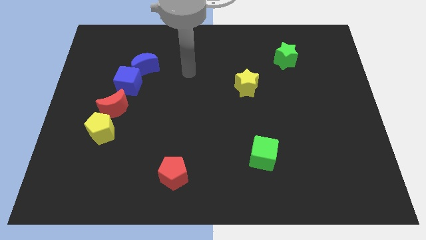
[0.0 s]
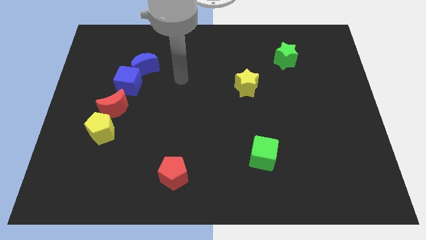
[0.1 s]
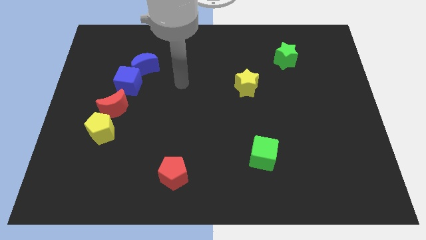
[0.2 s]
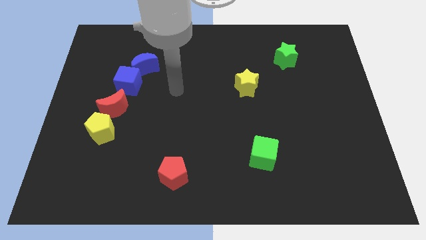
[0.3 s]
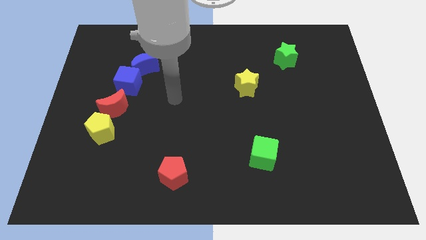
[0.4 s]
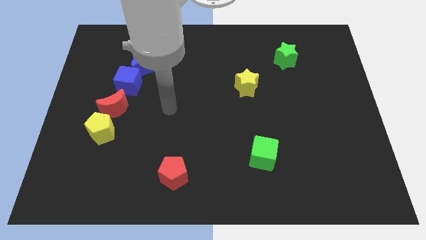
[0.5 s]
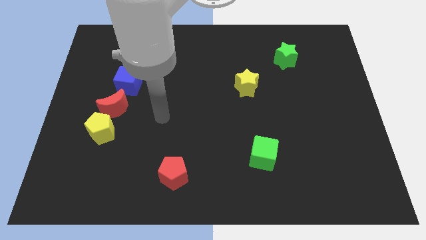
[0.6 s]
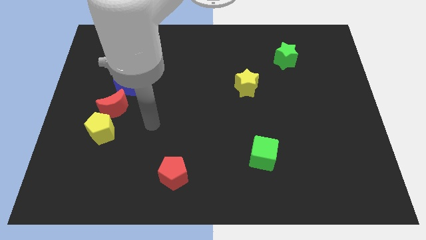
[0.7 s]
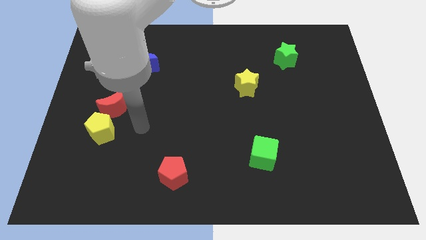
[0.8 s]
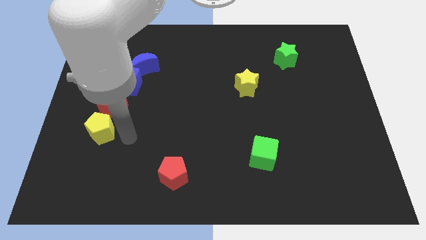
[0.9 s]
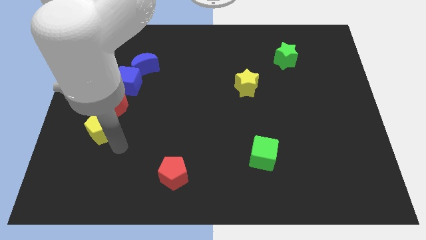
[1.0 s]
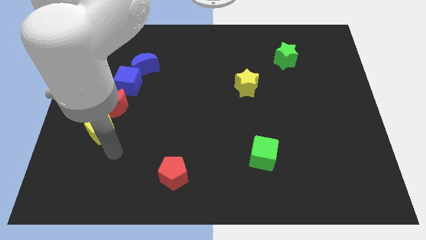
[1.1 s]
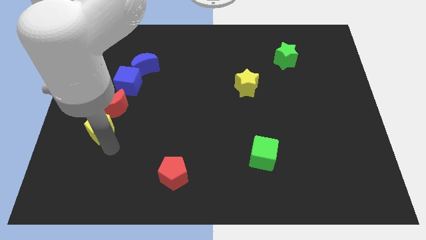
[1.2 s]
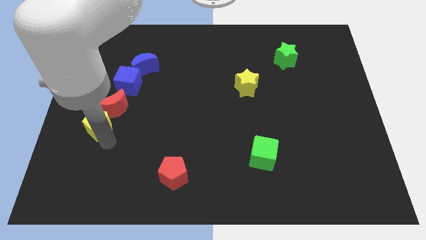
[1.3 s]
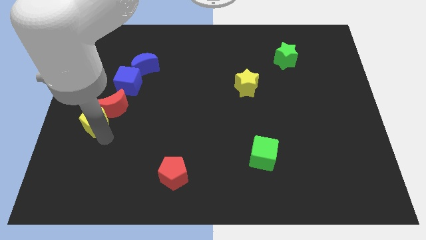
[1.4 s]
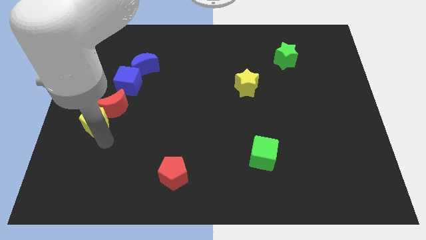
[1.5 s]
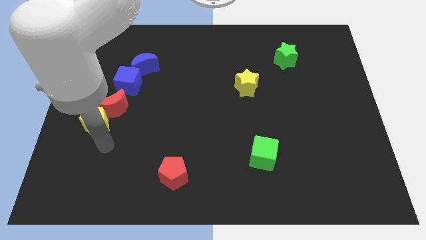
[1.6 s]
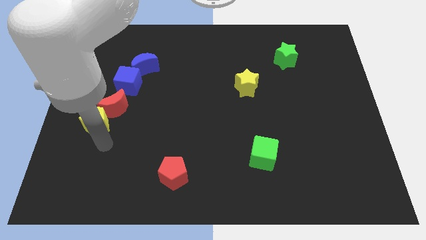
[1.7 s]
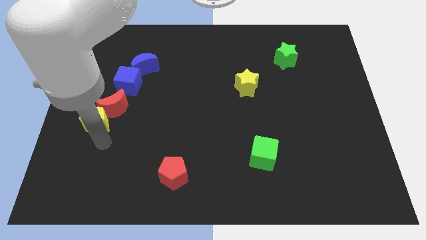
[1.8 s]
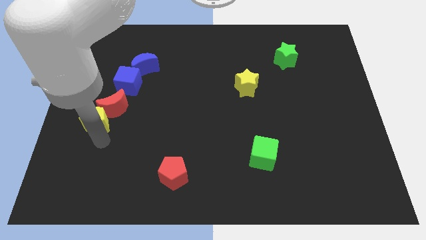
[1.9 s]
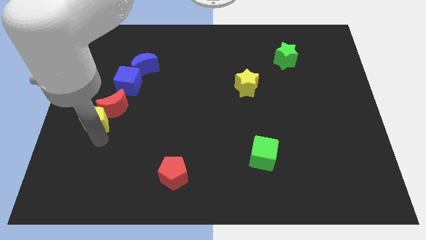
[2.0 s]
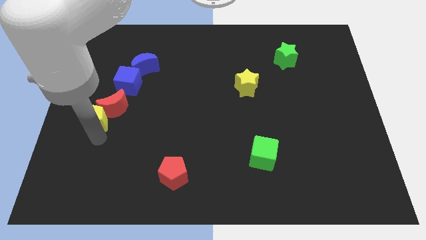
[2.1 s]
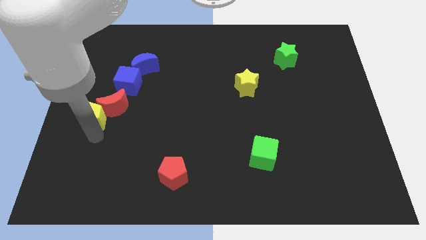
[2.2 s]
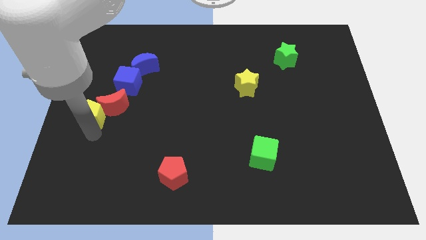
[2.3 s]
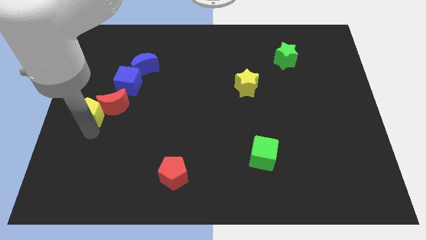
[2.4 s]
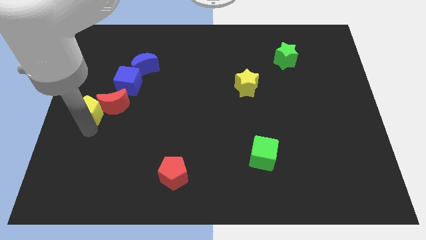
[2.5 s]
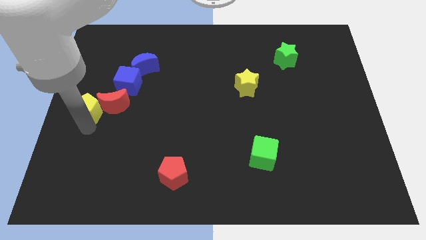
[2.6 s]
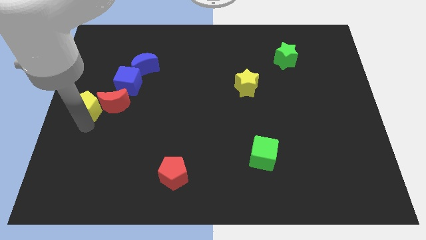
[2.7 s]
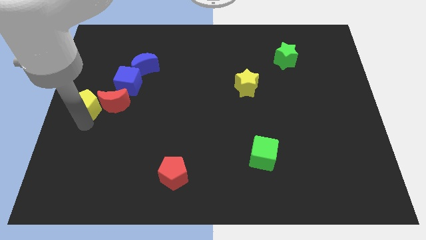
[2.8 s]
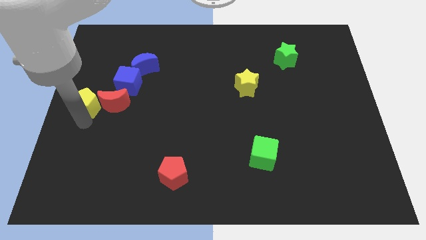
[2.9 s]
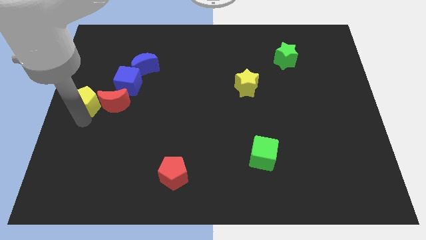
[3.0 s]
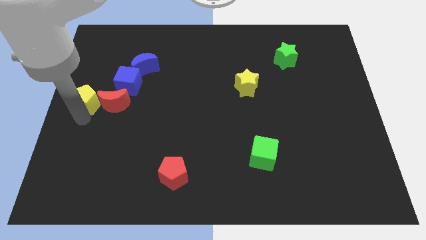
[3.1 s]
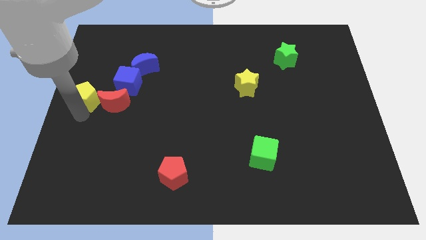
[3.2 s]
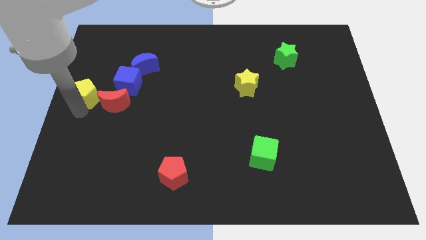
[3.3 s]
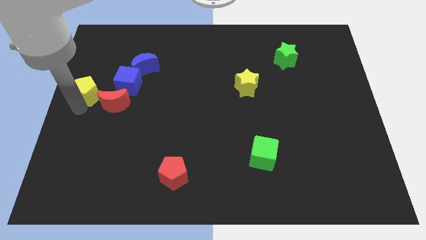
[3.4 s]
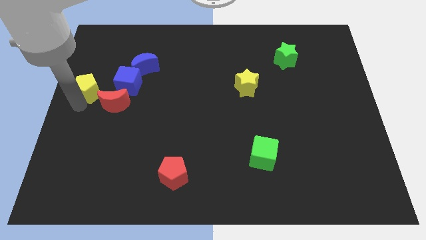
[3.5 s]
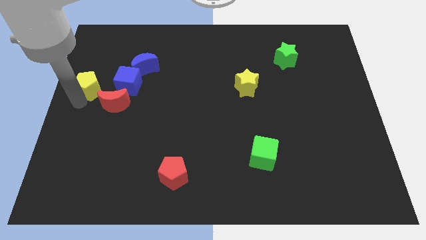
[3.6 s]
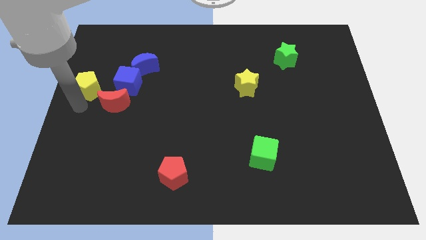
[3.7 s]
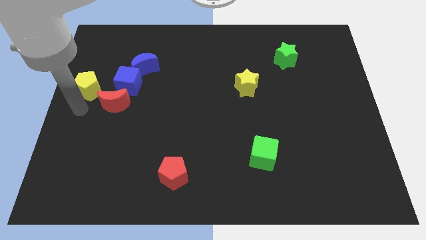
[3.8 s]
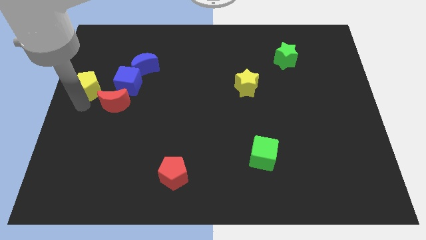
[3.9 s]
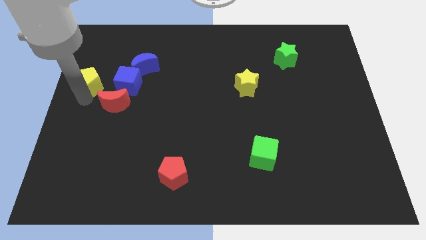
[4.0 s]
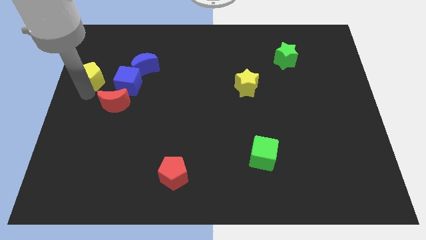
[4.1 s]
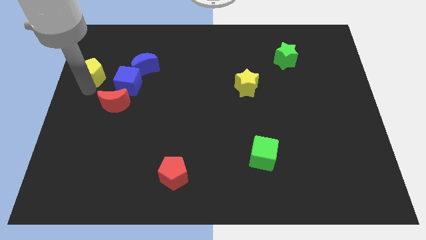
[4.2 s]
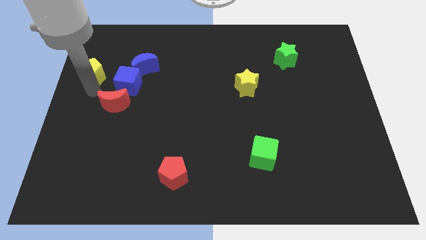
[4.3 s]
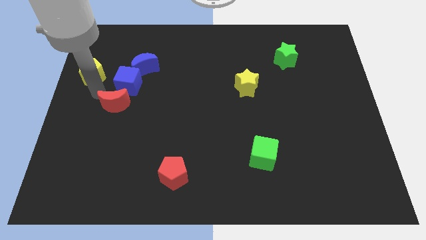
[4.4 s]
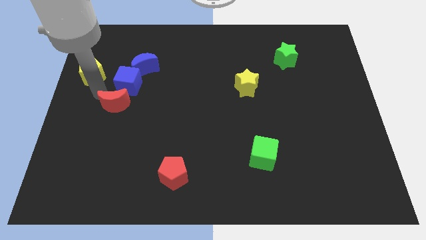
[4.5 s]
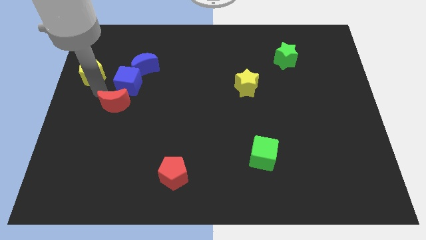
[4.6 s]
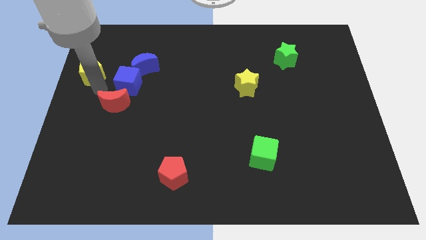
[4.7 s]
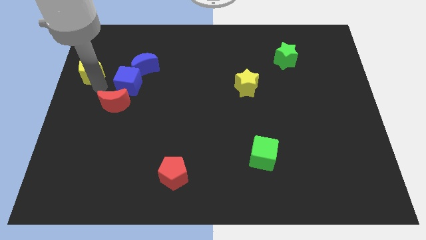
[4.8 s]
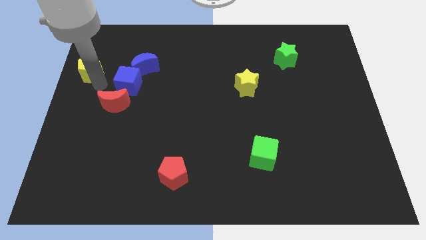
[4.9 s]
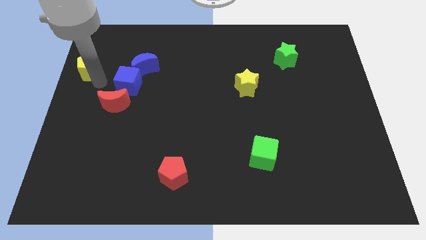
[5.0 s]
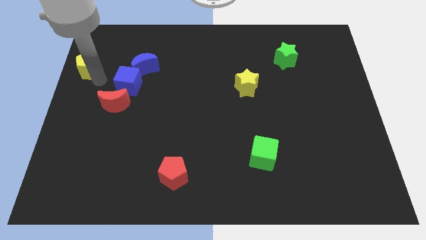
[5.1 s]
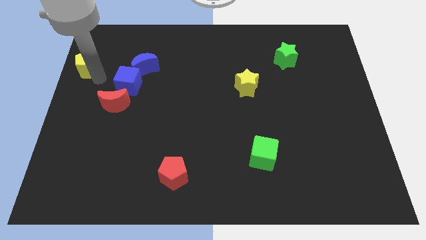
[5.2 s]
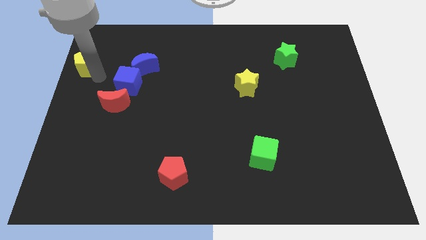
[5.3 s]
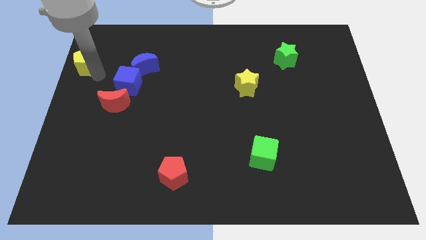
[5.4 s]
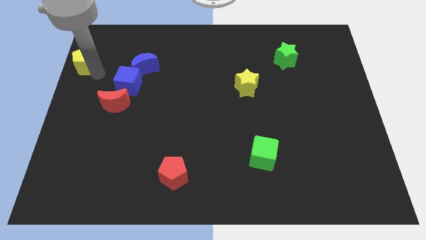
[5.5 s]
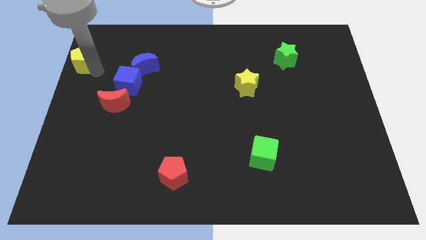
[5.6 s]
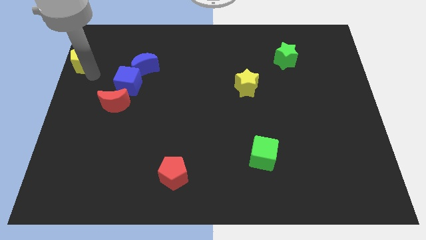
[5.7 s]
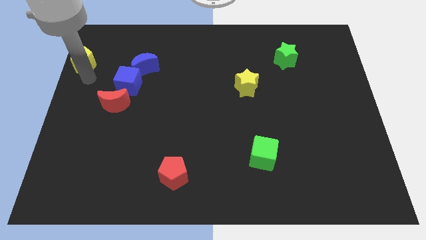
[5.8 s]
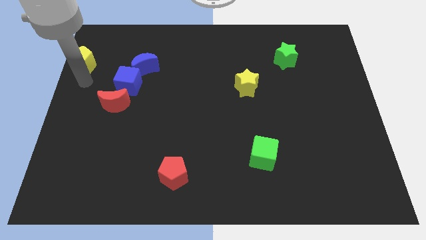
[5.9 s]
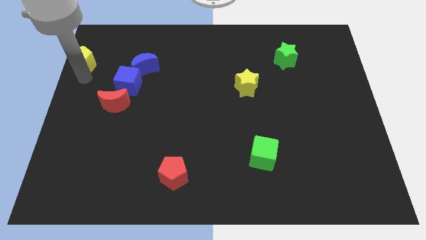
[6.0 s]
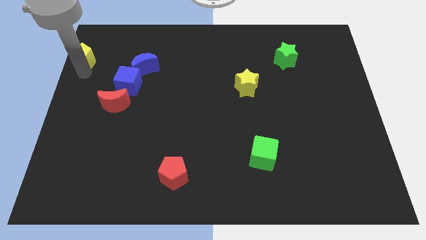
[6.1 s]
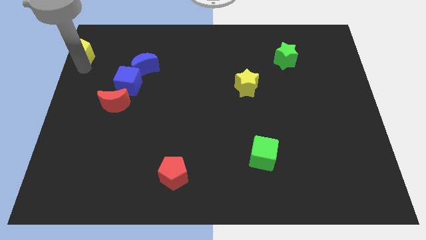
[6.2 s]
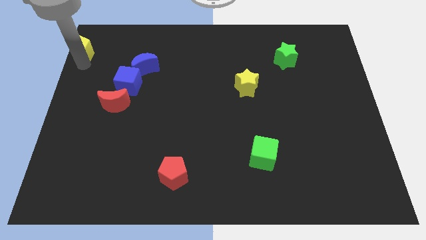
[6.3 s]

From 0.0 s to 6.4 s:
move the yellow pentagon to the top left of the board

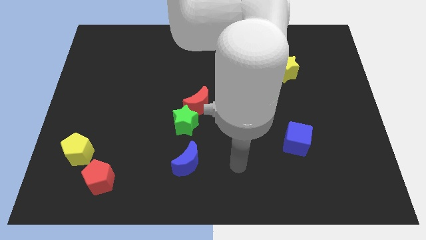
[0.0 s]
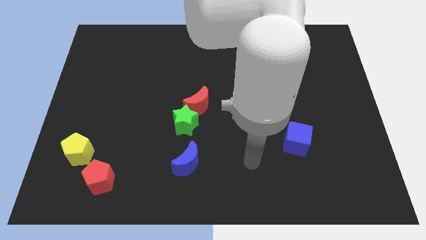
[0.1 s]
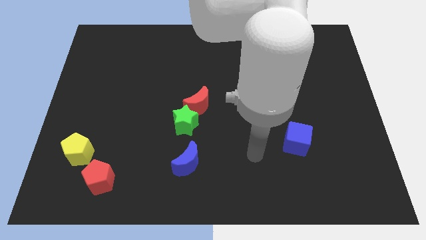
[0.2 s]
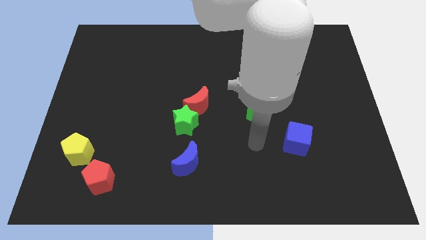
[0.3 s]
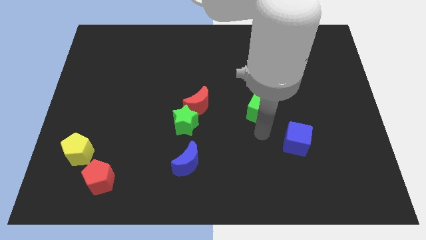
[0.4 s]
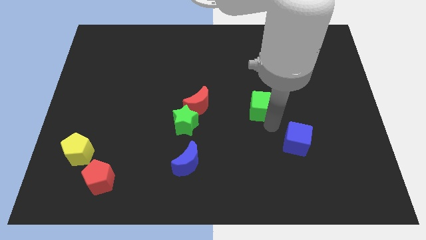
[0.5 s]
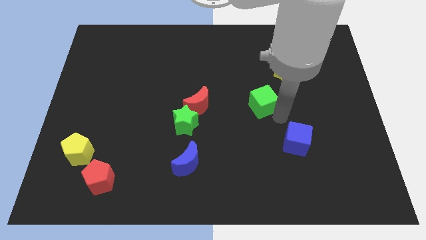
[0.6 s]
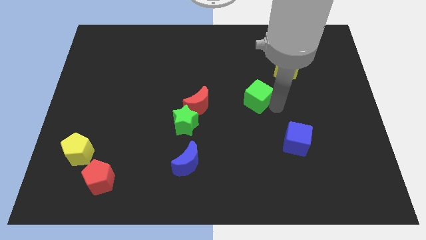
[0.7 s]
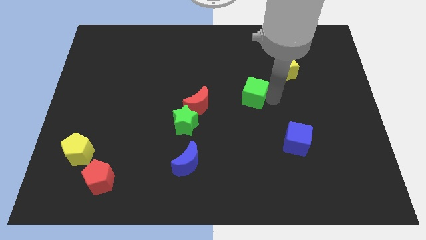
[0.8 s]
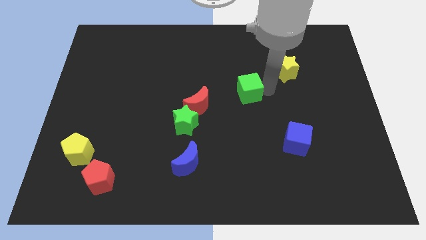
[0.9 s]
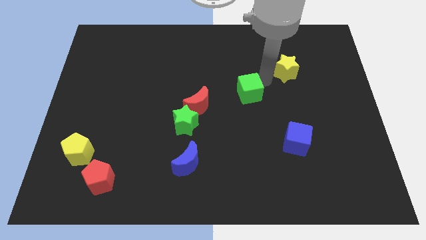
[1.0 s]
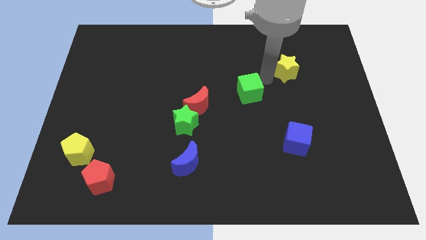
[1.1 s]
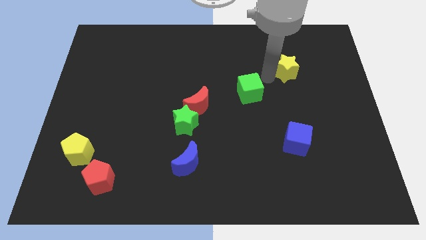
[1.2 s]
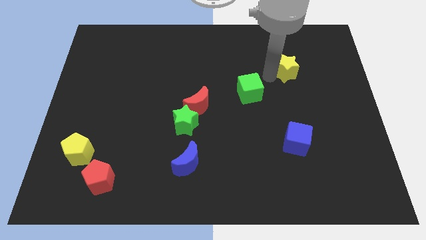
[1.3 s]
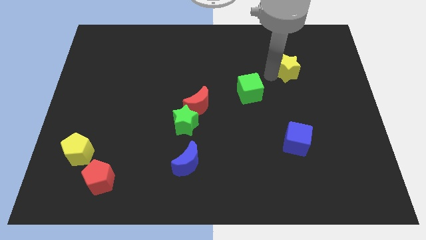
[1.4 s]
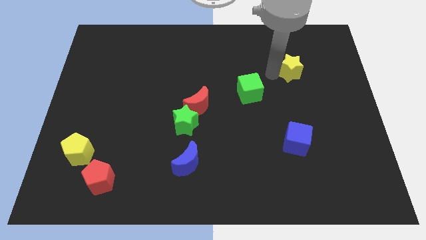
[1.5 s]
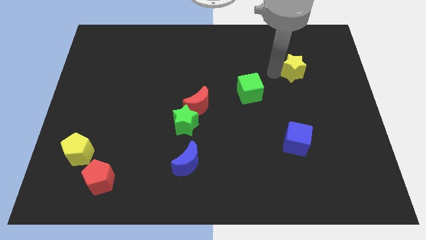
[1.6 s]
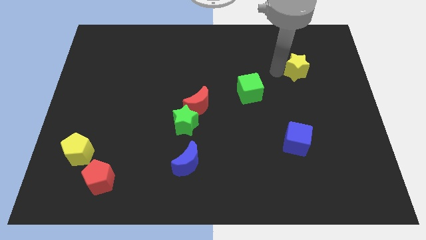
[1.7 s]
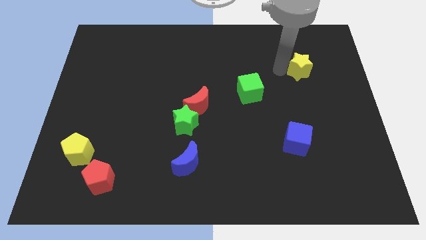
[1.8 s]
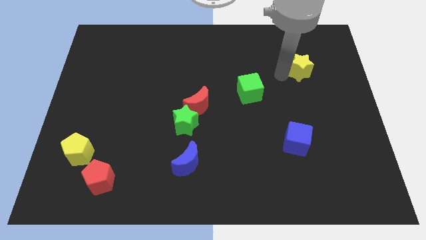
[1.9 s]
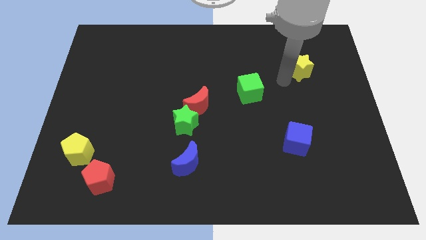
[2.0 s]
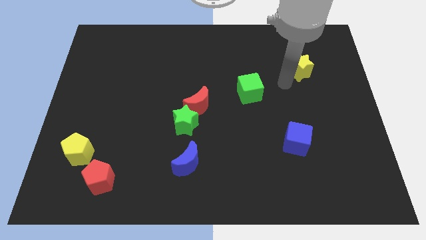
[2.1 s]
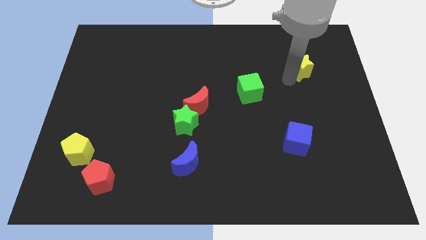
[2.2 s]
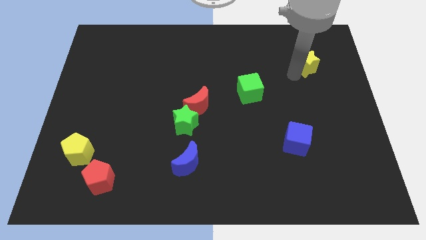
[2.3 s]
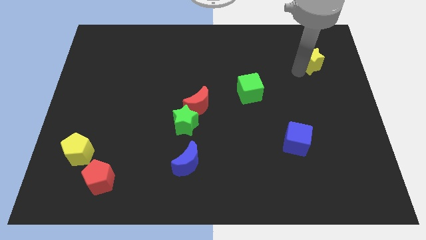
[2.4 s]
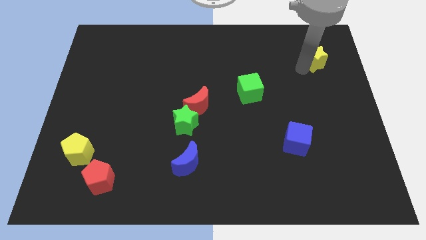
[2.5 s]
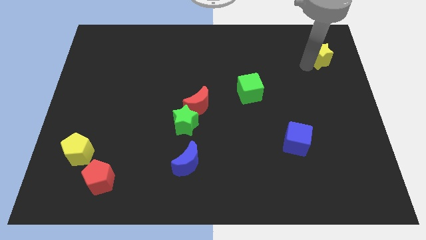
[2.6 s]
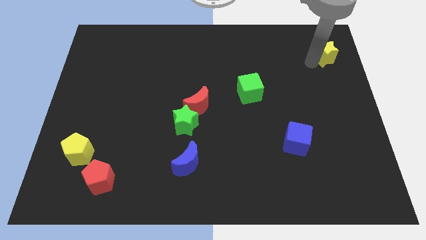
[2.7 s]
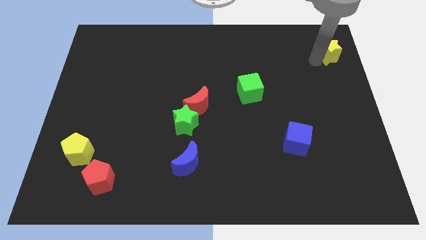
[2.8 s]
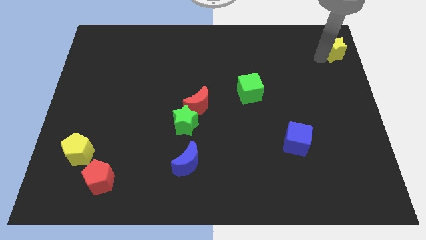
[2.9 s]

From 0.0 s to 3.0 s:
move the yellow star to the top right corner
